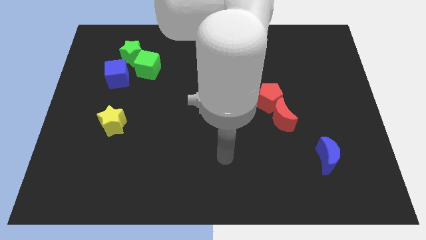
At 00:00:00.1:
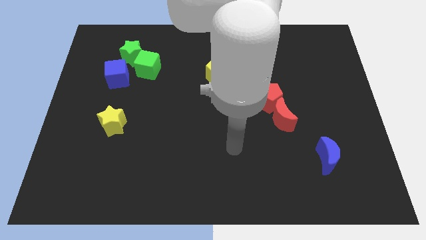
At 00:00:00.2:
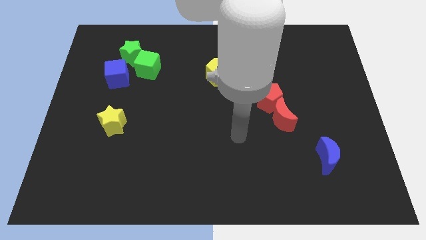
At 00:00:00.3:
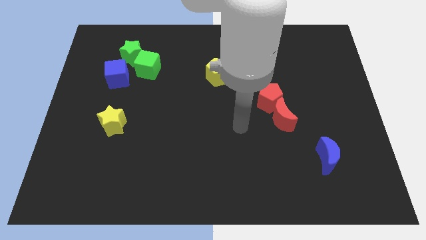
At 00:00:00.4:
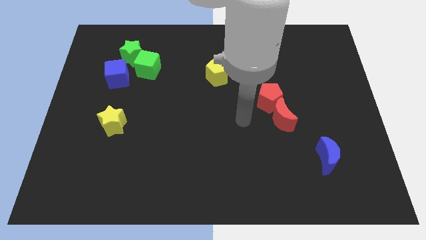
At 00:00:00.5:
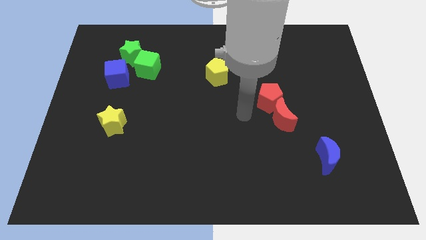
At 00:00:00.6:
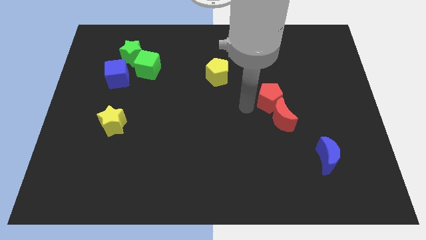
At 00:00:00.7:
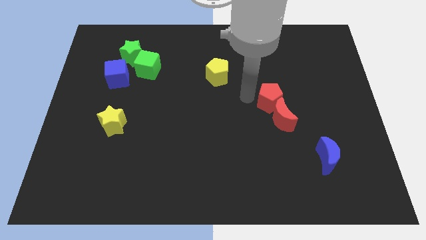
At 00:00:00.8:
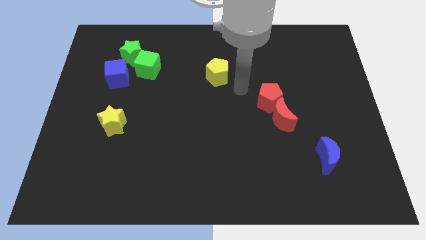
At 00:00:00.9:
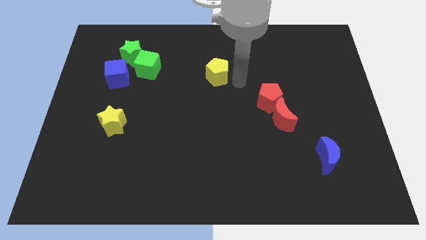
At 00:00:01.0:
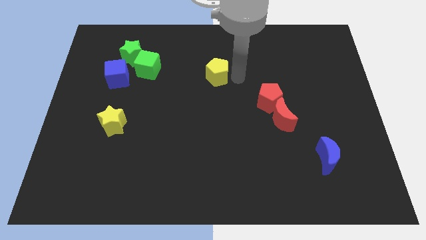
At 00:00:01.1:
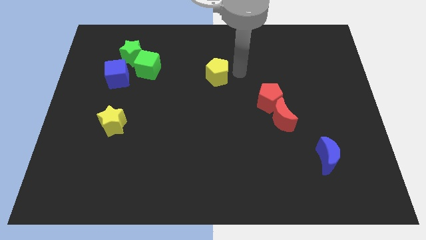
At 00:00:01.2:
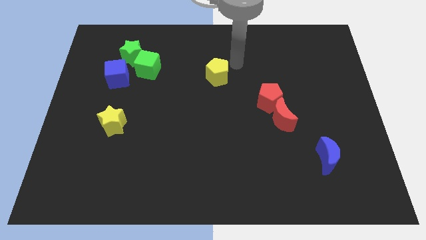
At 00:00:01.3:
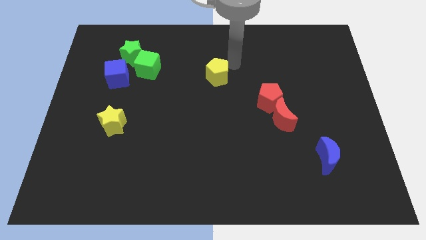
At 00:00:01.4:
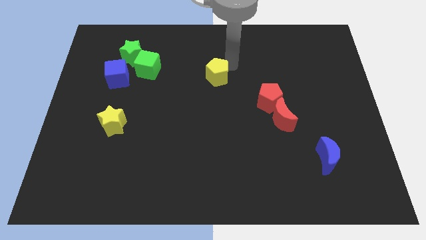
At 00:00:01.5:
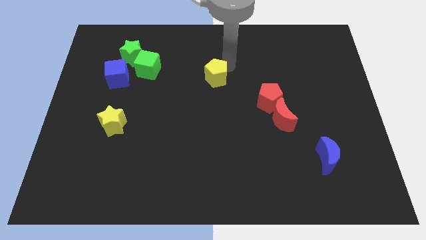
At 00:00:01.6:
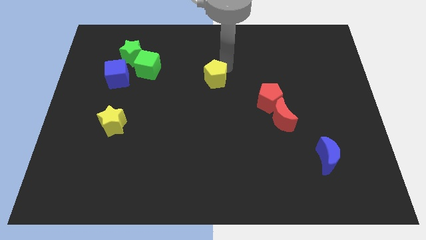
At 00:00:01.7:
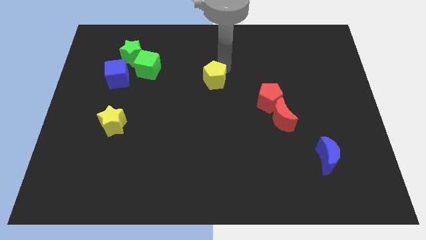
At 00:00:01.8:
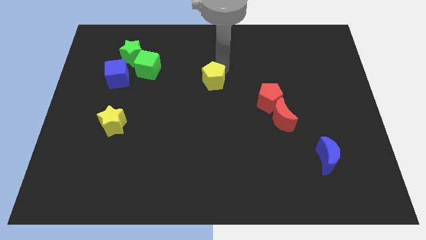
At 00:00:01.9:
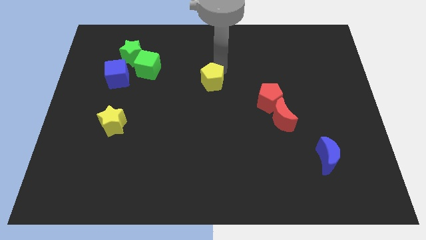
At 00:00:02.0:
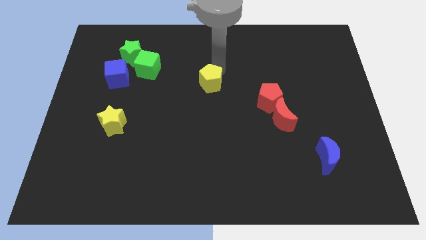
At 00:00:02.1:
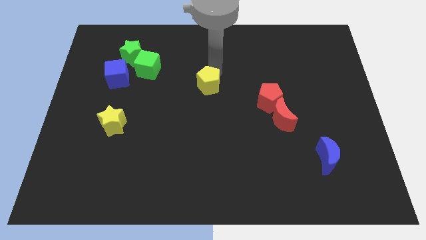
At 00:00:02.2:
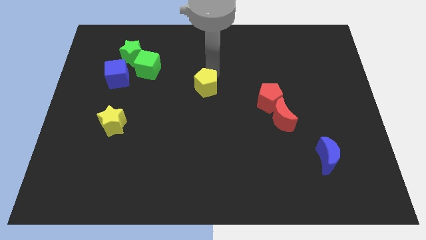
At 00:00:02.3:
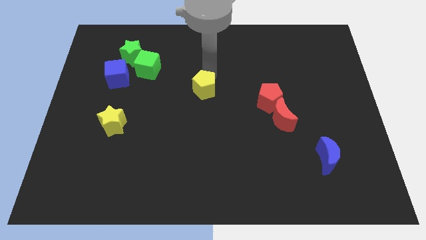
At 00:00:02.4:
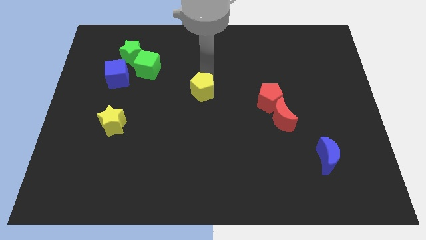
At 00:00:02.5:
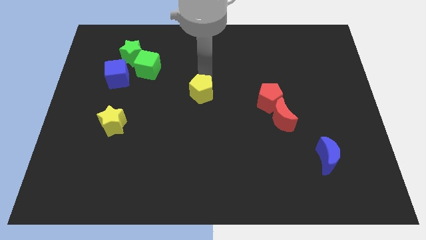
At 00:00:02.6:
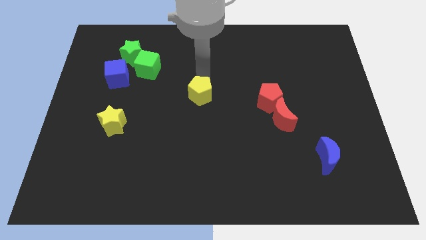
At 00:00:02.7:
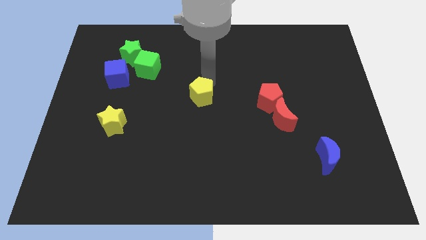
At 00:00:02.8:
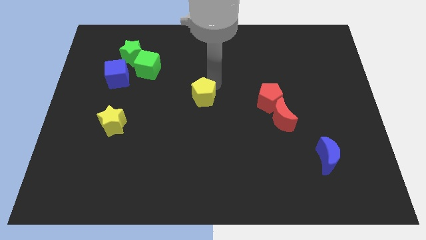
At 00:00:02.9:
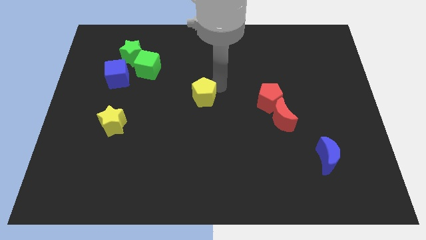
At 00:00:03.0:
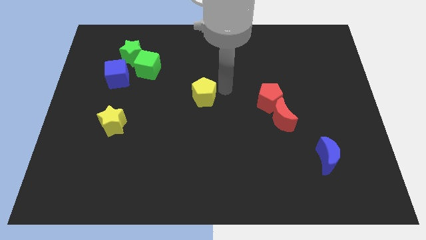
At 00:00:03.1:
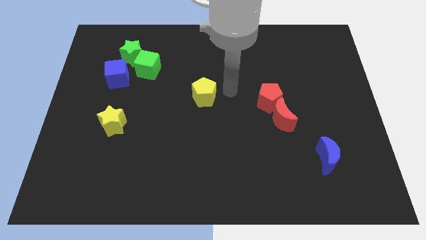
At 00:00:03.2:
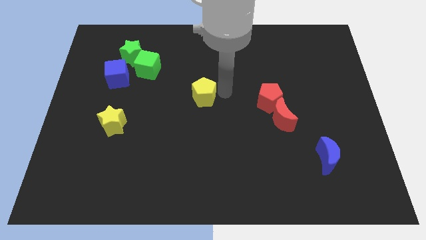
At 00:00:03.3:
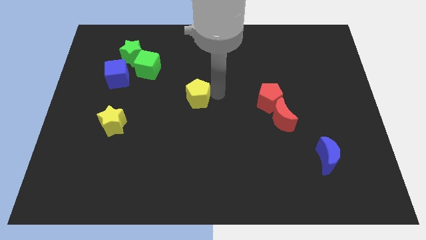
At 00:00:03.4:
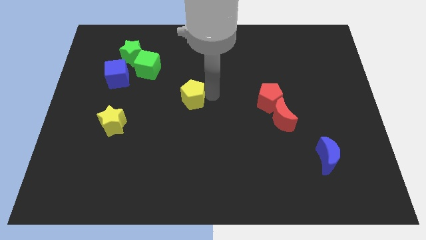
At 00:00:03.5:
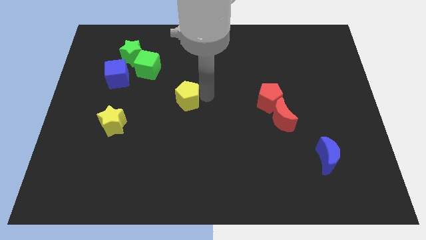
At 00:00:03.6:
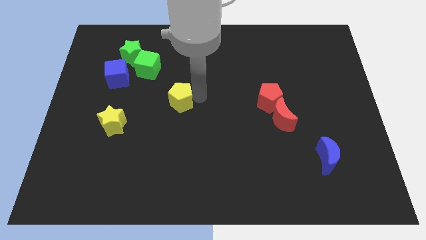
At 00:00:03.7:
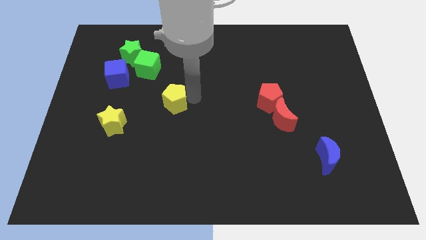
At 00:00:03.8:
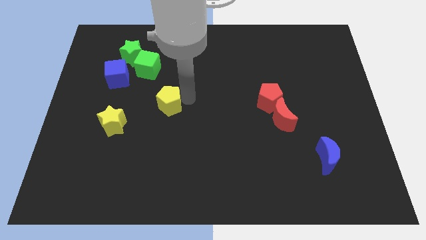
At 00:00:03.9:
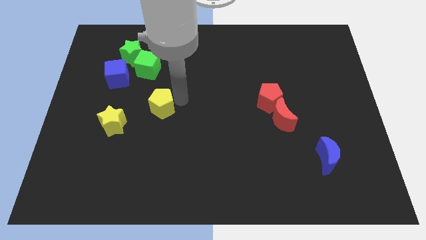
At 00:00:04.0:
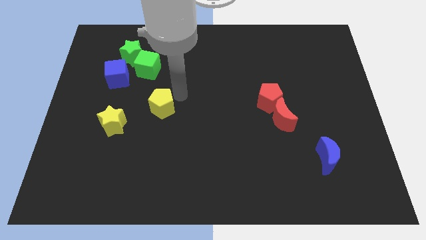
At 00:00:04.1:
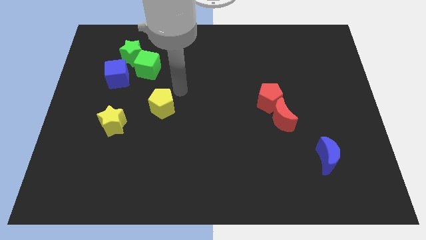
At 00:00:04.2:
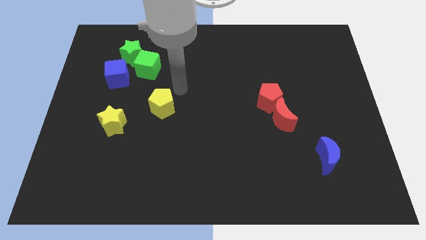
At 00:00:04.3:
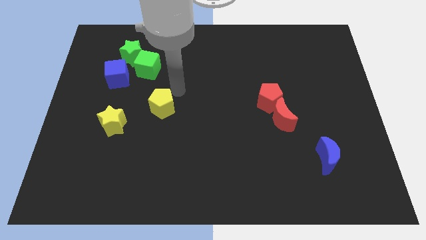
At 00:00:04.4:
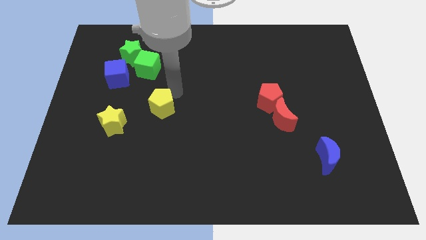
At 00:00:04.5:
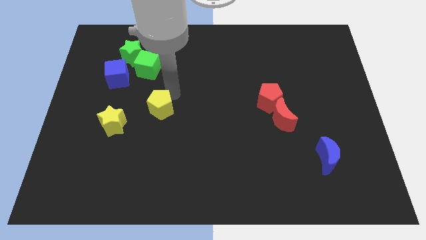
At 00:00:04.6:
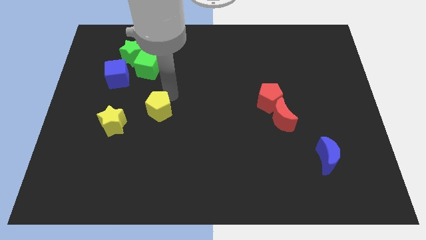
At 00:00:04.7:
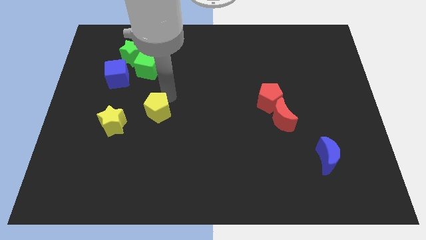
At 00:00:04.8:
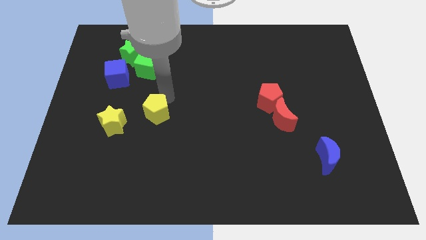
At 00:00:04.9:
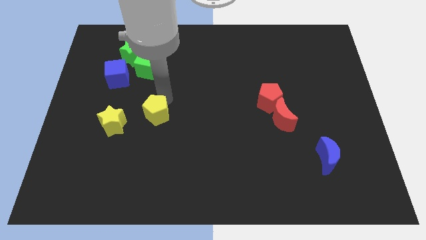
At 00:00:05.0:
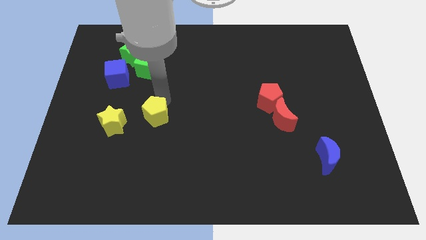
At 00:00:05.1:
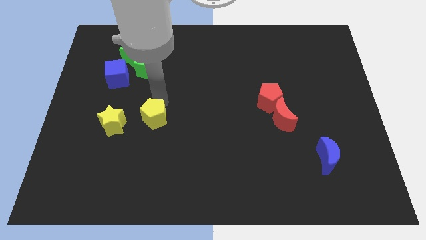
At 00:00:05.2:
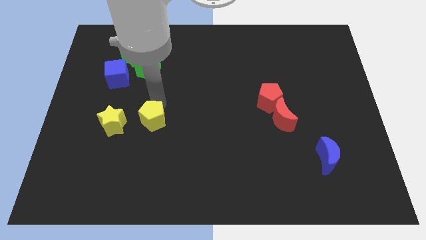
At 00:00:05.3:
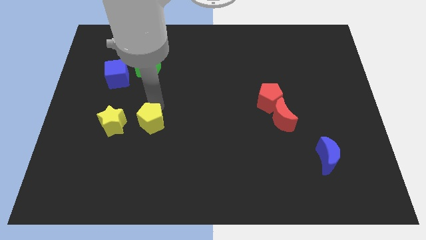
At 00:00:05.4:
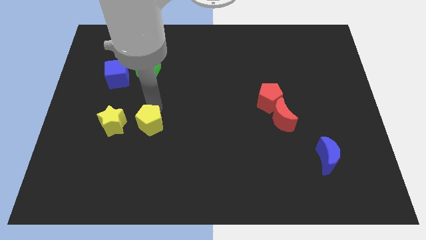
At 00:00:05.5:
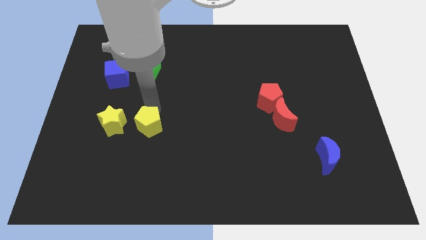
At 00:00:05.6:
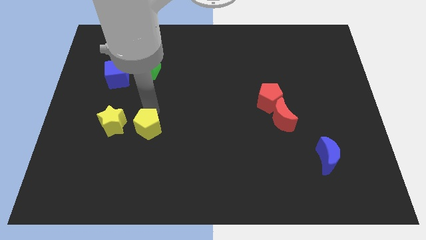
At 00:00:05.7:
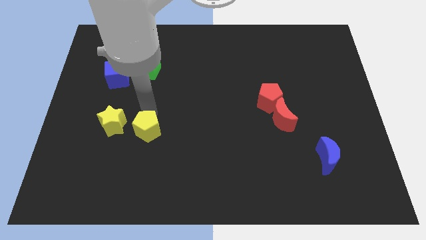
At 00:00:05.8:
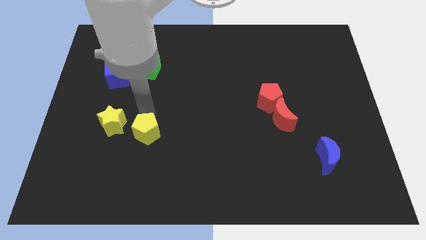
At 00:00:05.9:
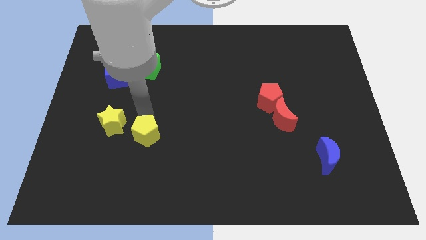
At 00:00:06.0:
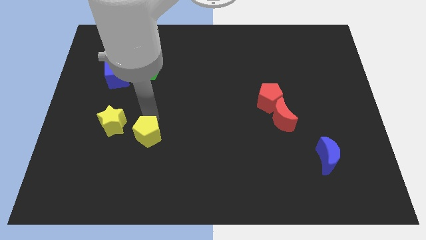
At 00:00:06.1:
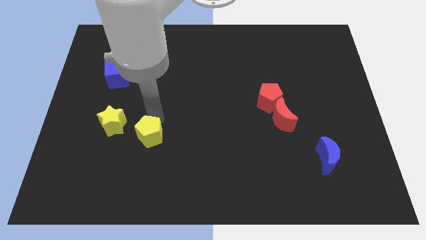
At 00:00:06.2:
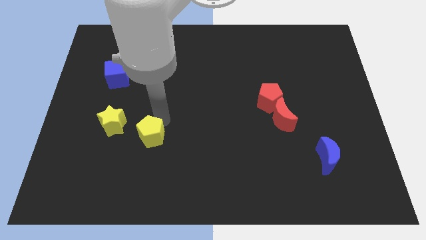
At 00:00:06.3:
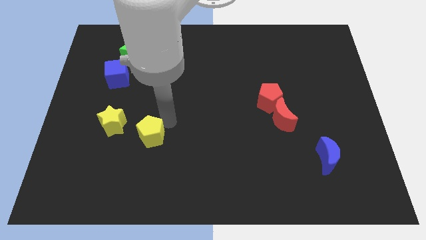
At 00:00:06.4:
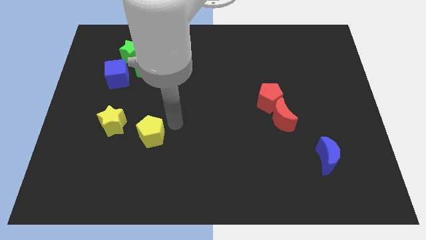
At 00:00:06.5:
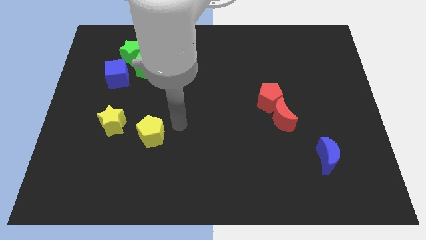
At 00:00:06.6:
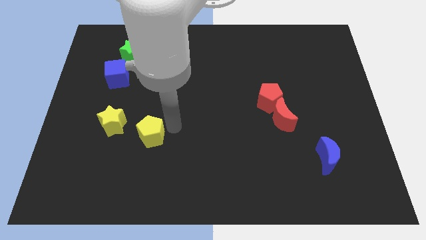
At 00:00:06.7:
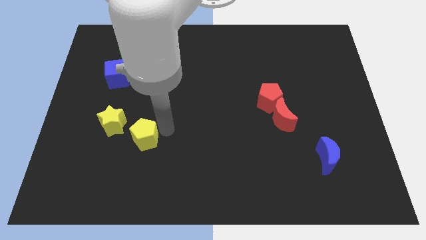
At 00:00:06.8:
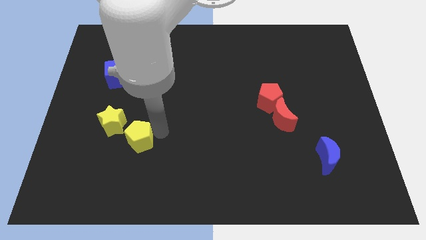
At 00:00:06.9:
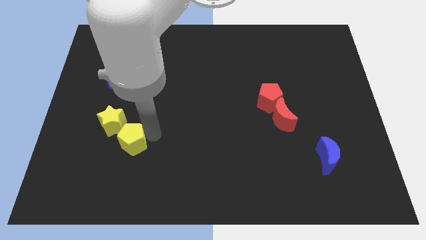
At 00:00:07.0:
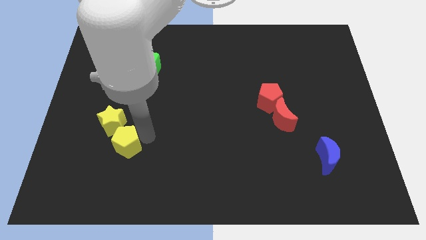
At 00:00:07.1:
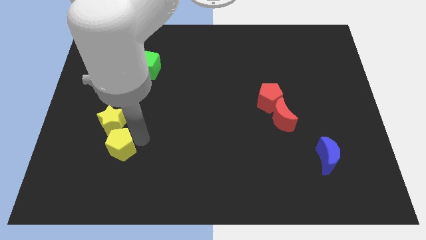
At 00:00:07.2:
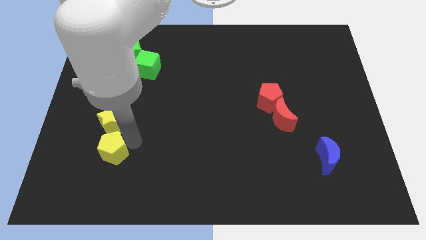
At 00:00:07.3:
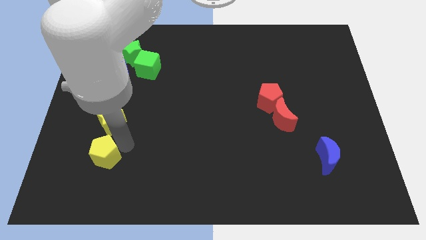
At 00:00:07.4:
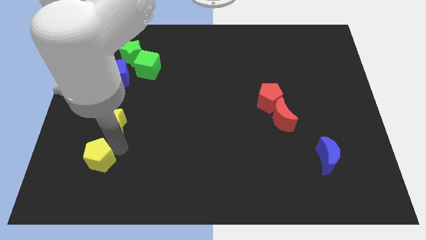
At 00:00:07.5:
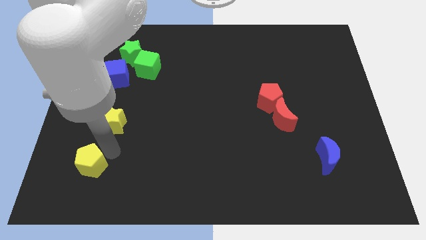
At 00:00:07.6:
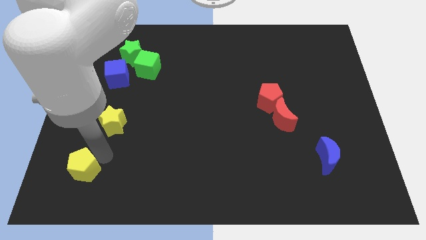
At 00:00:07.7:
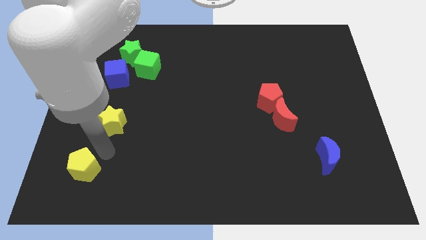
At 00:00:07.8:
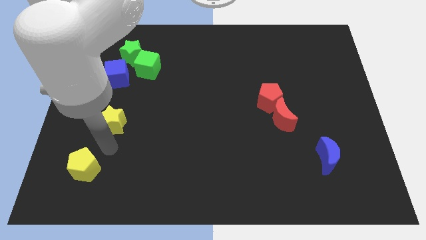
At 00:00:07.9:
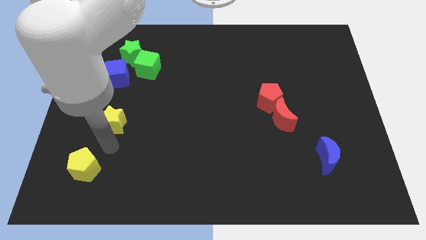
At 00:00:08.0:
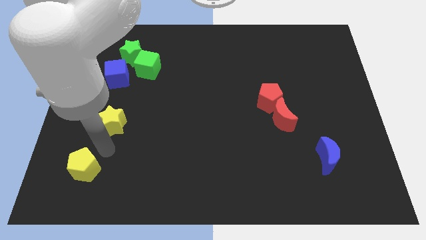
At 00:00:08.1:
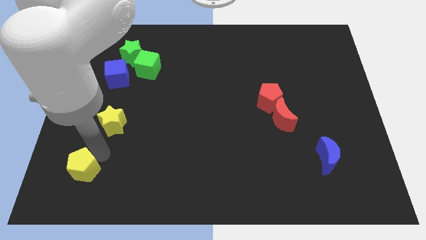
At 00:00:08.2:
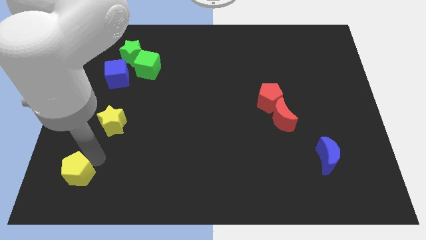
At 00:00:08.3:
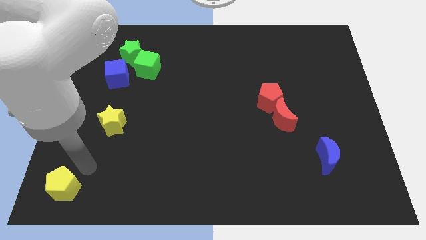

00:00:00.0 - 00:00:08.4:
put the yellow pentagon to the bottom left corner
